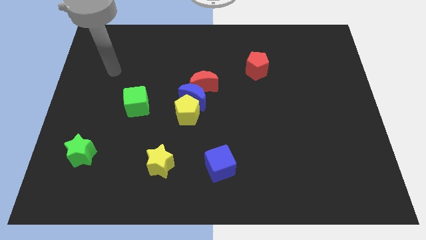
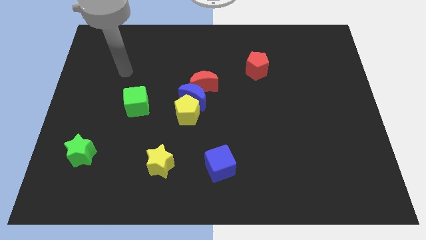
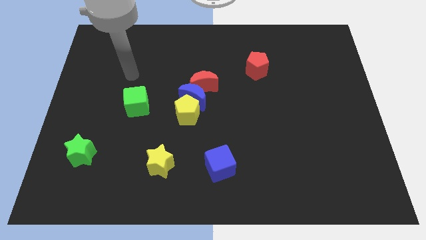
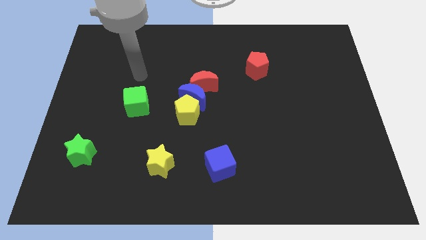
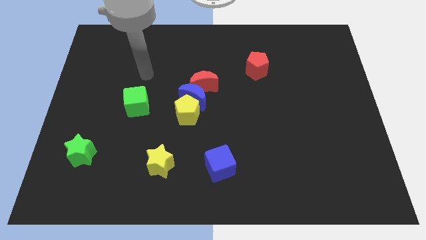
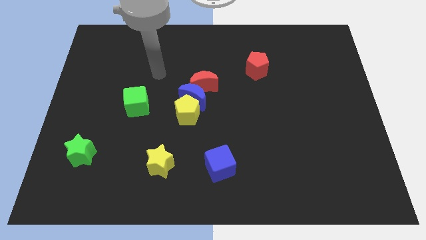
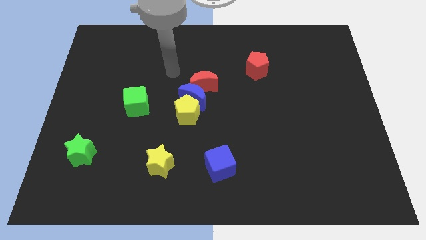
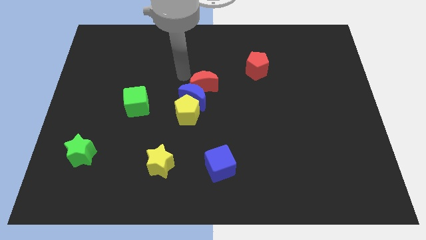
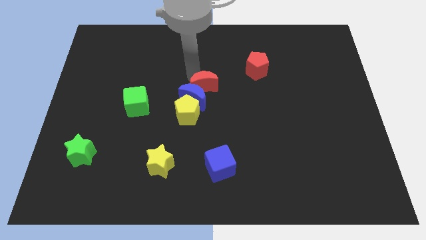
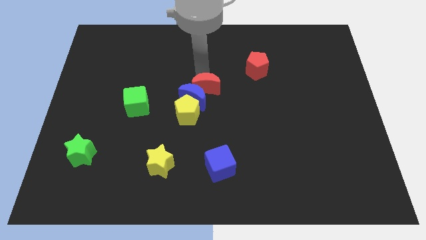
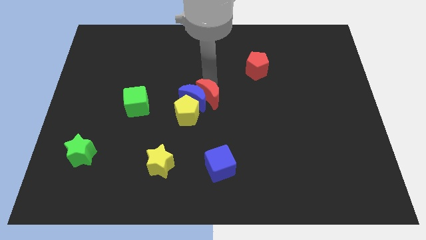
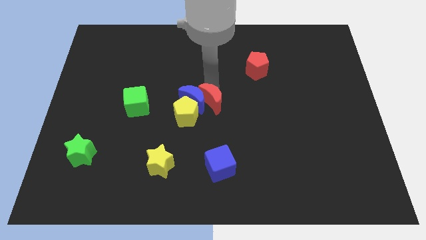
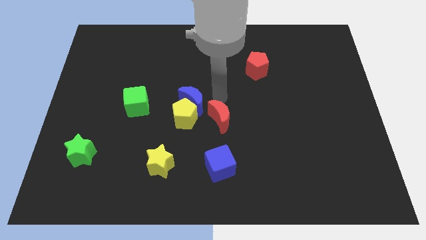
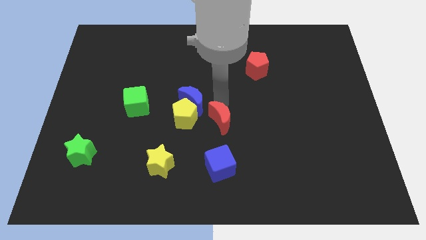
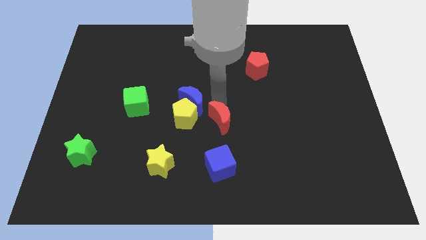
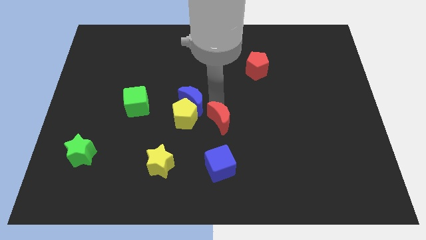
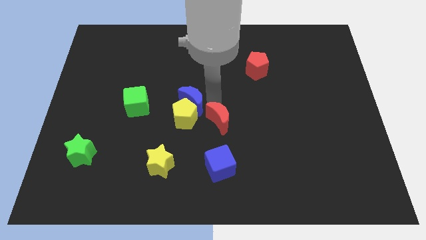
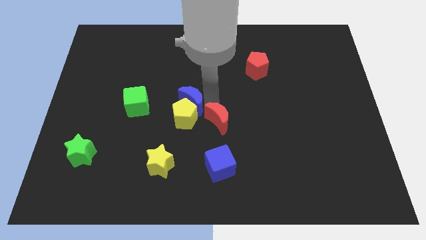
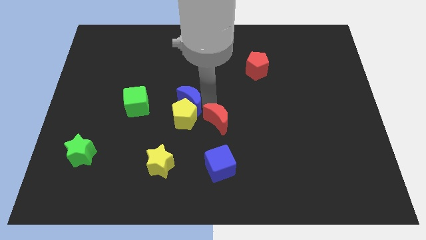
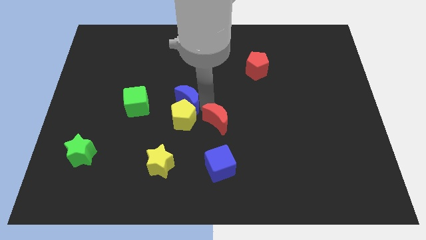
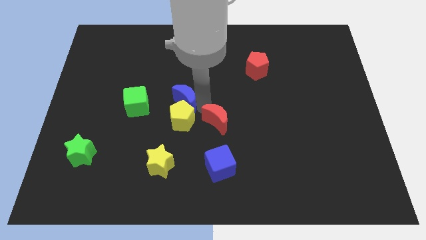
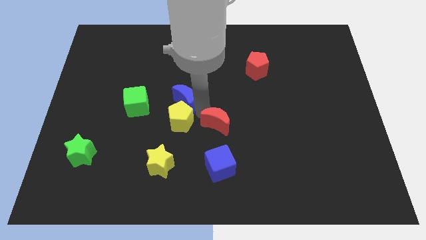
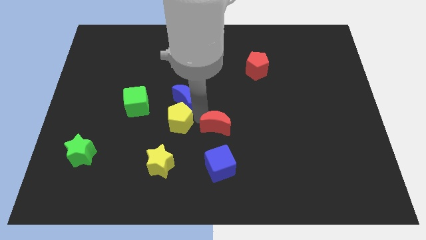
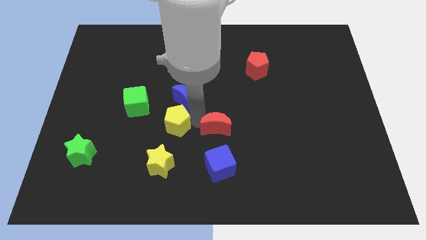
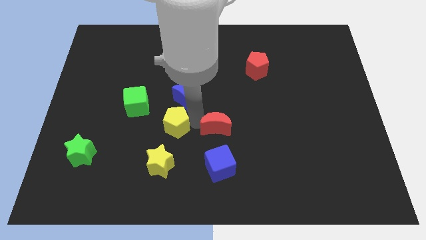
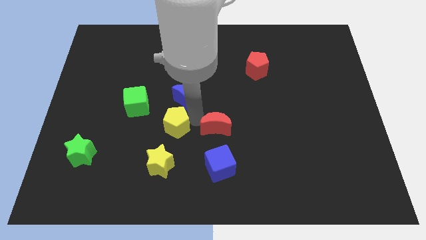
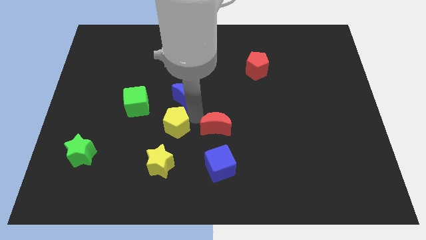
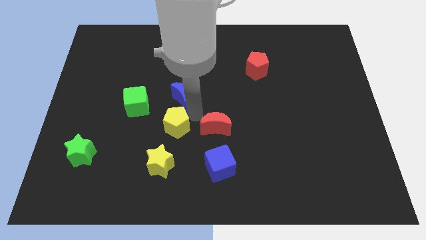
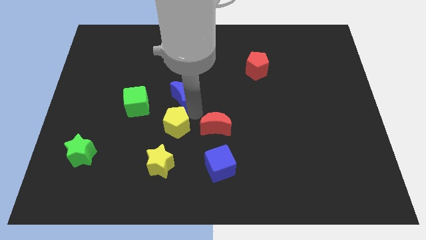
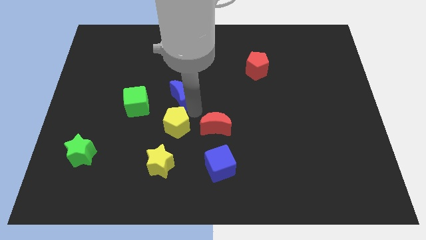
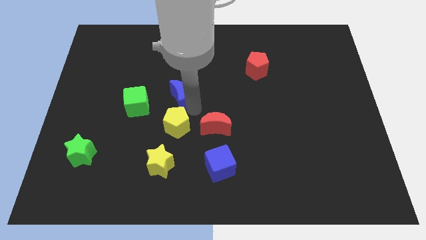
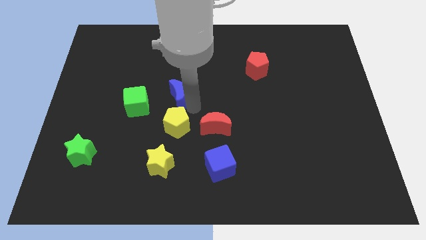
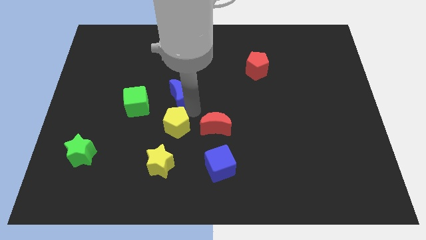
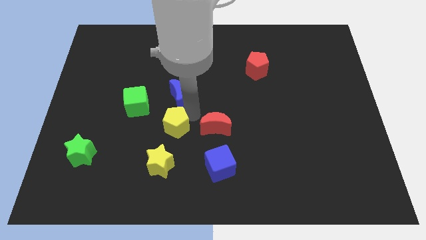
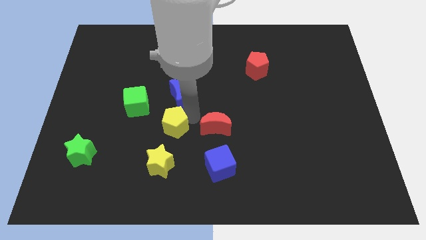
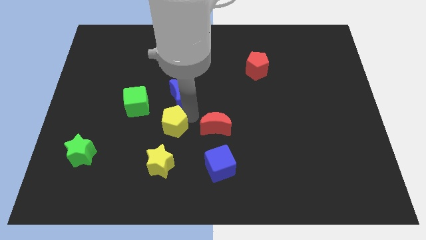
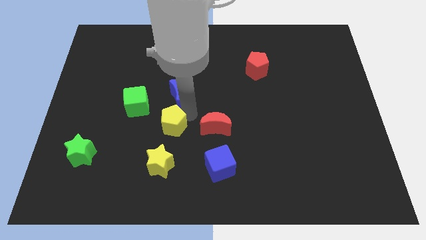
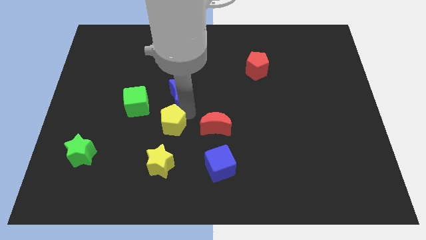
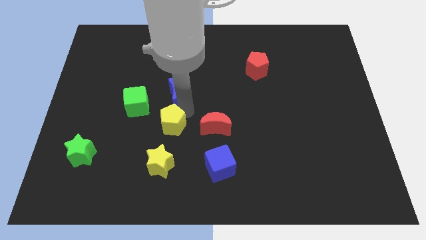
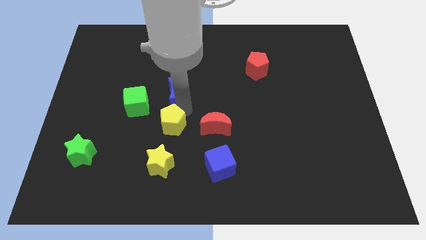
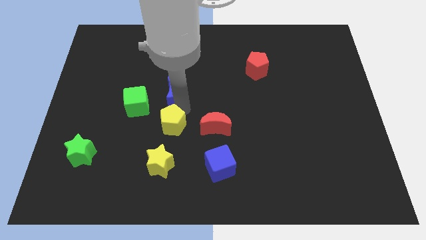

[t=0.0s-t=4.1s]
separate the blue moon from the yellow pentagon and red moon

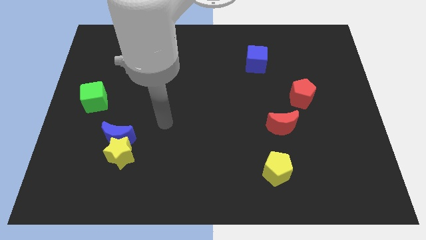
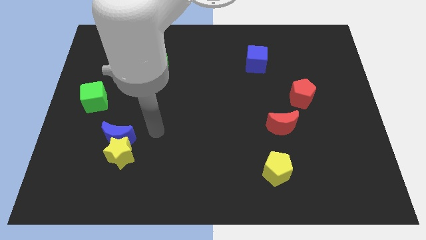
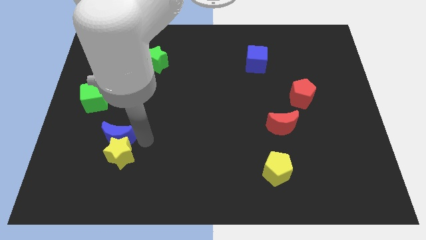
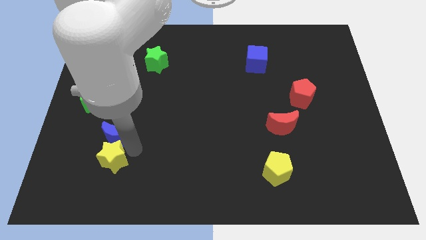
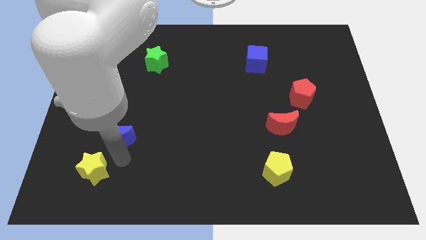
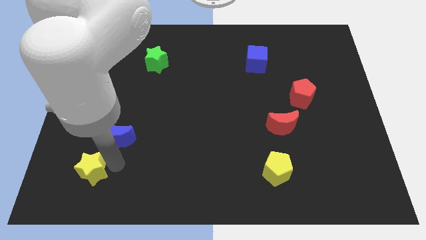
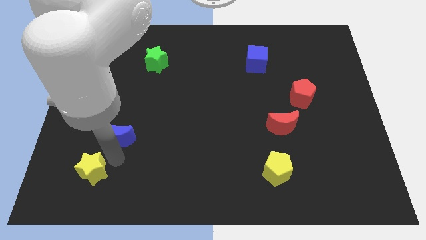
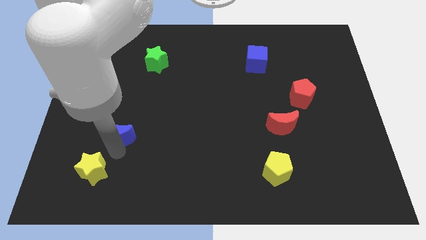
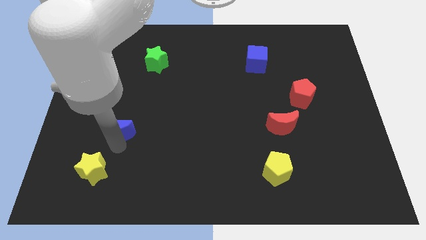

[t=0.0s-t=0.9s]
move the blue moon away from the yellow star

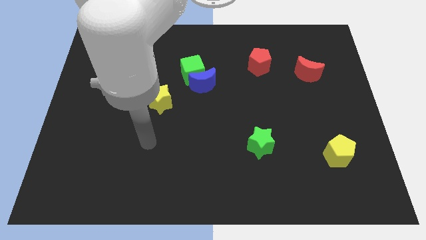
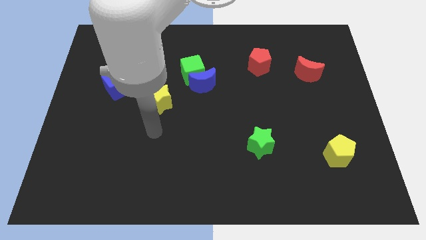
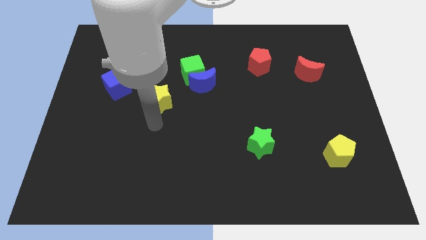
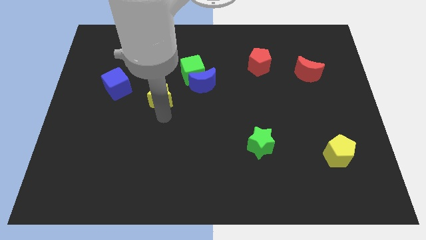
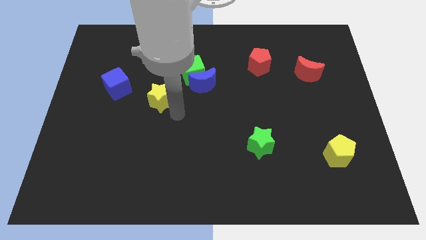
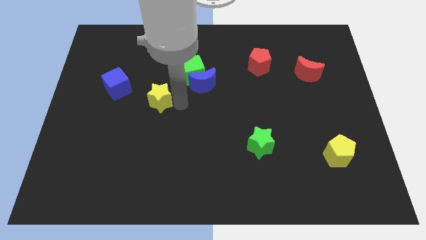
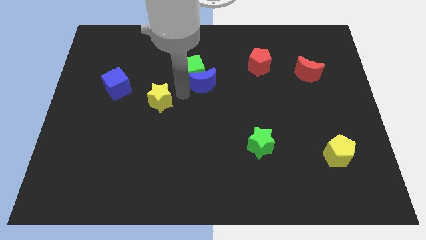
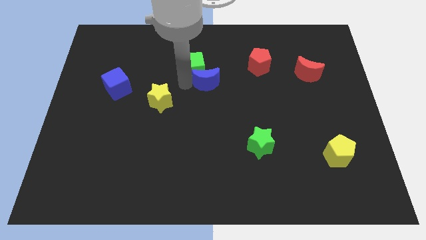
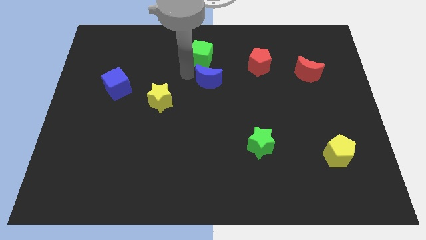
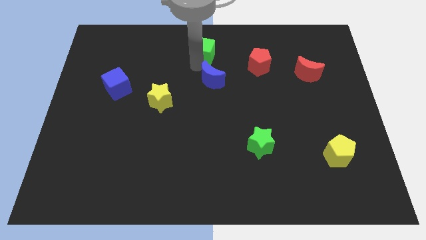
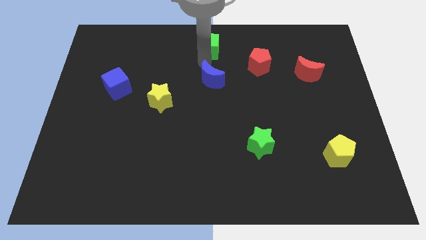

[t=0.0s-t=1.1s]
separate the blue moon from the green cube

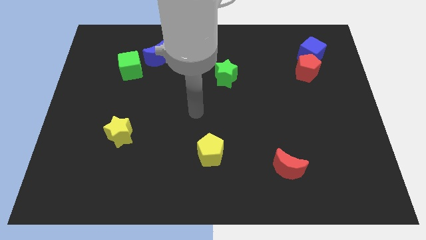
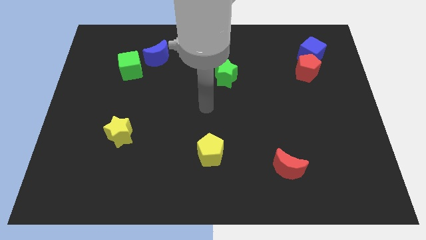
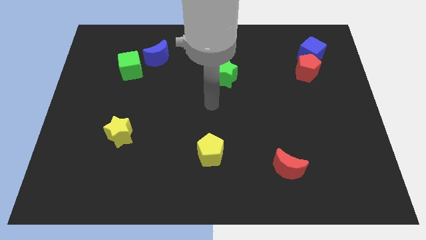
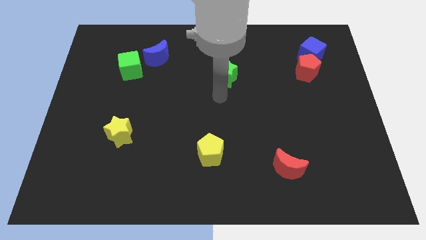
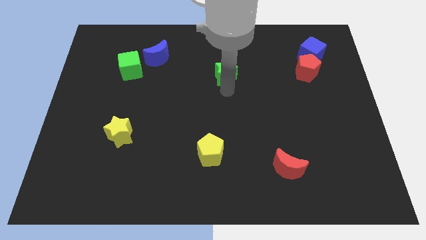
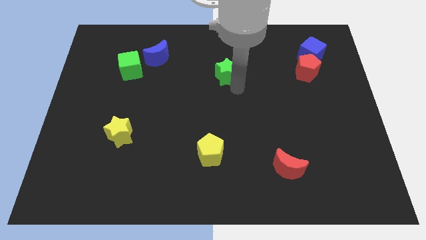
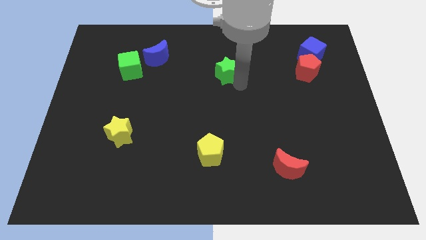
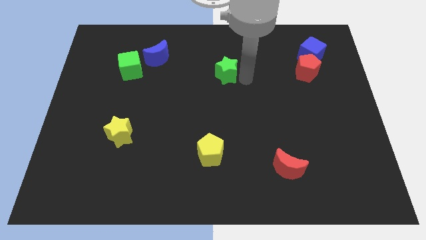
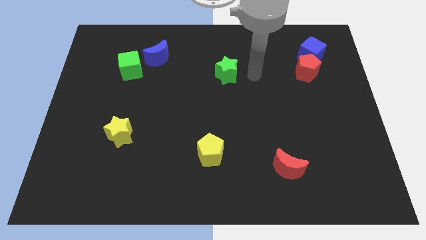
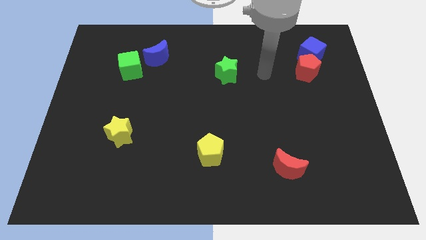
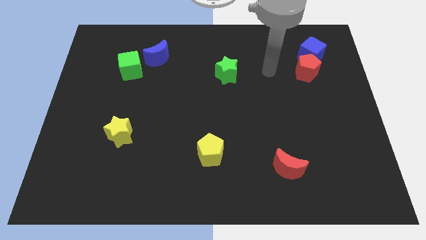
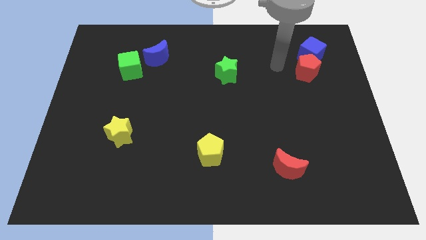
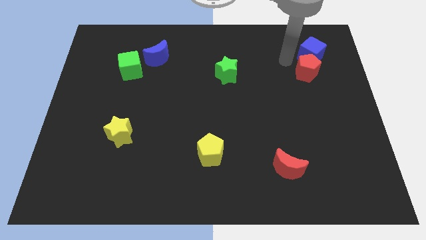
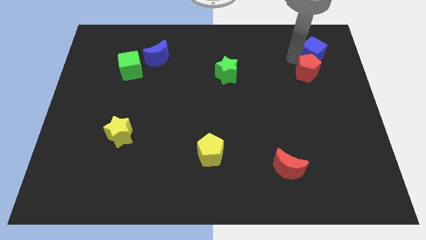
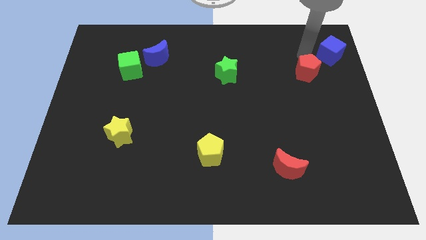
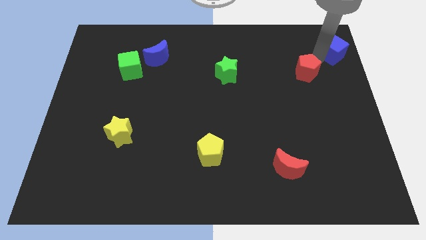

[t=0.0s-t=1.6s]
pull the red pentagon apart from the blue cube

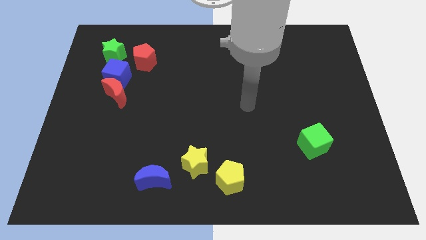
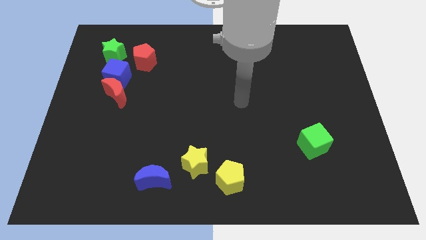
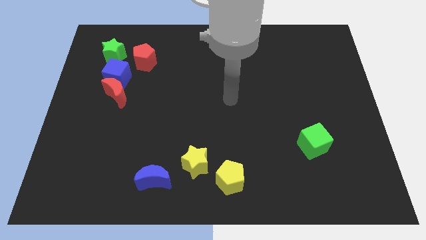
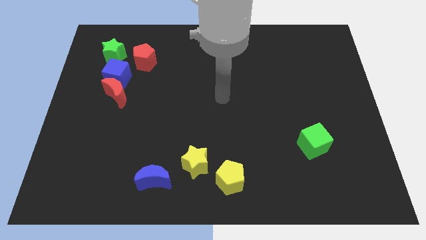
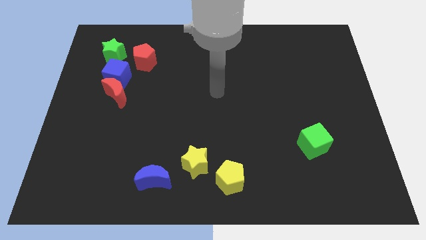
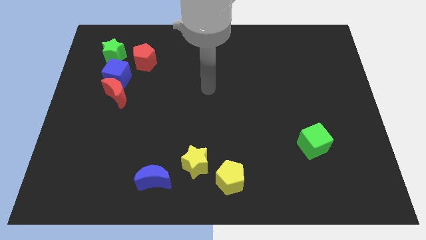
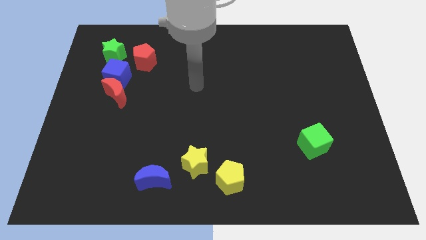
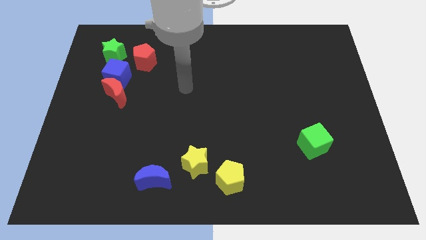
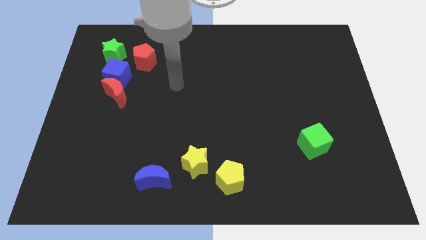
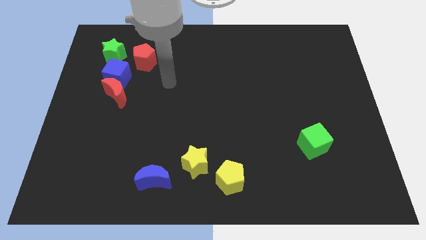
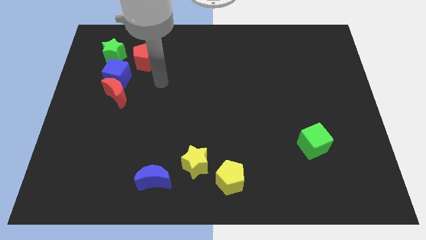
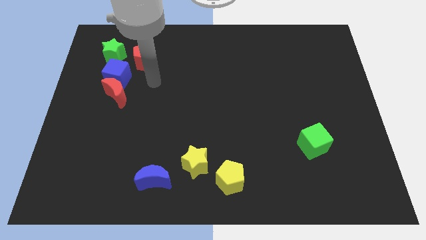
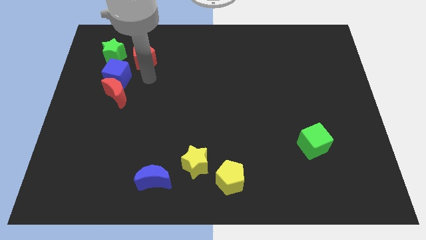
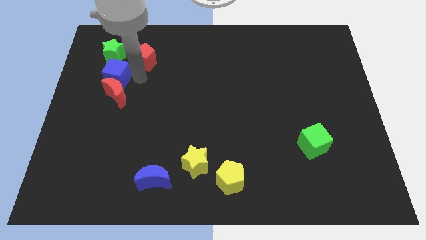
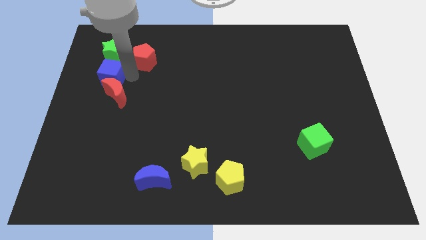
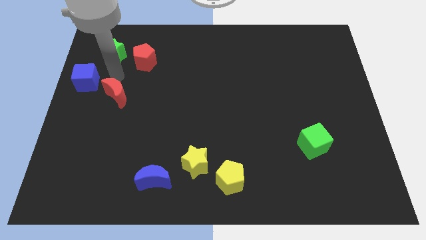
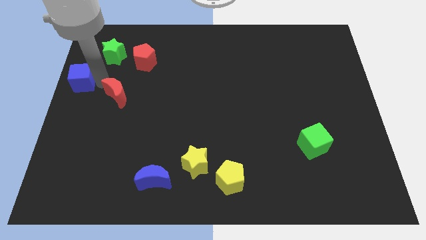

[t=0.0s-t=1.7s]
pull the red moon apart from the blue cube
